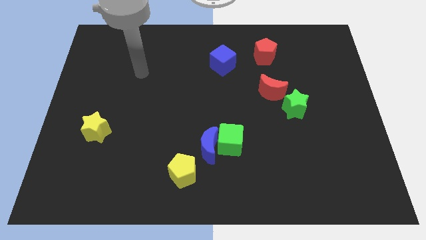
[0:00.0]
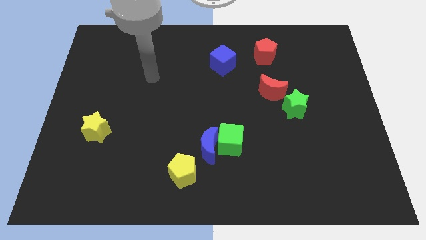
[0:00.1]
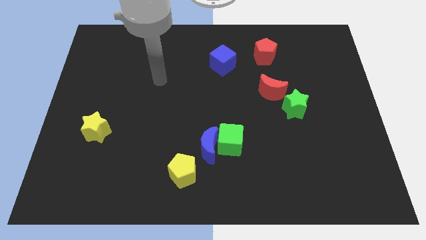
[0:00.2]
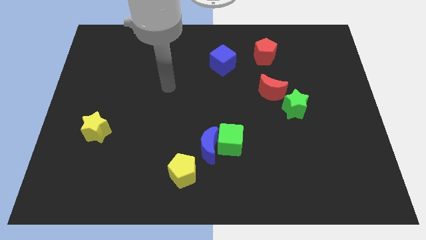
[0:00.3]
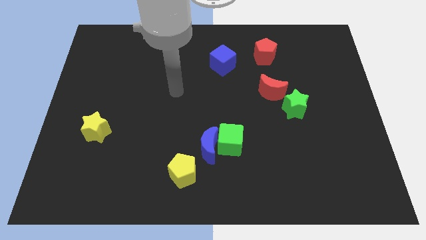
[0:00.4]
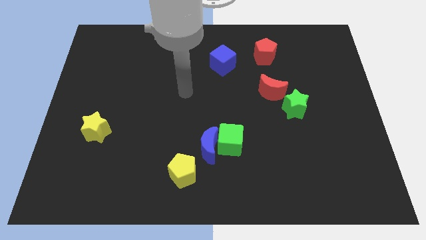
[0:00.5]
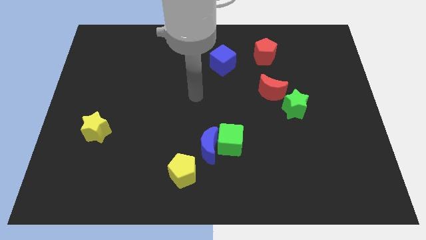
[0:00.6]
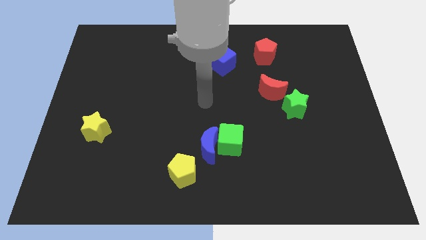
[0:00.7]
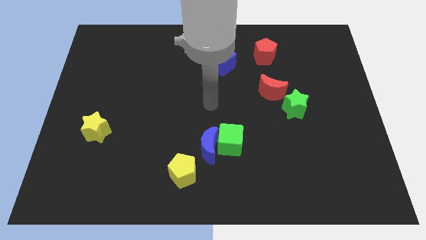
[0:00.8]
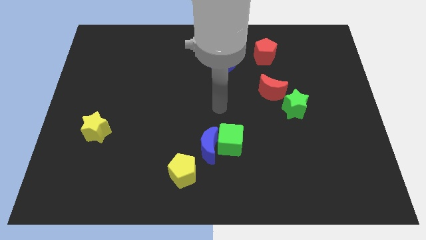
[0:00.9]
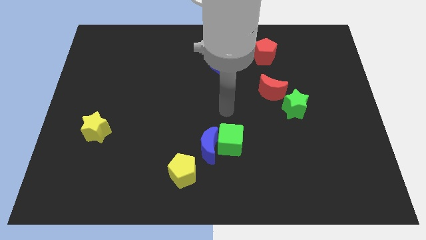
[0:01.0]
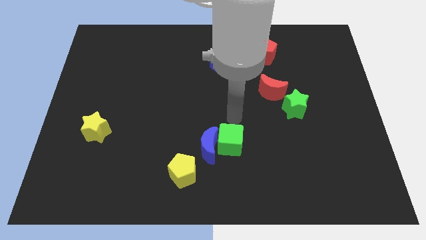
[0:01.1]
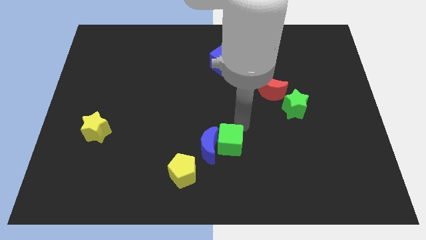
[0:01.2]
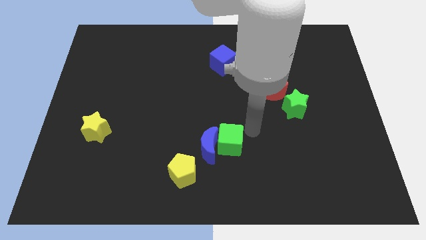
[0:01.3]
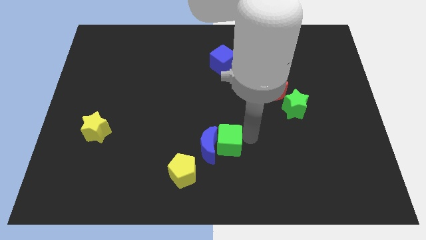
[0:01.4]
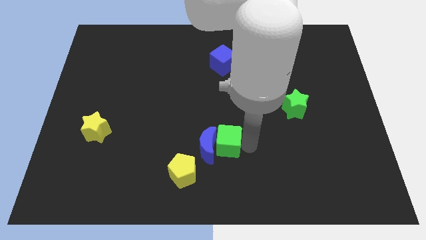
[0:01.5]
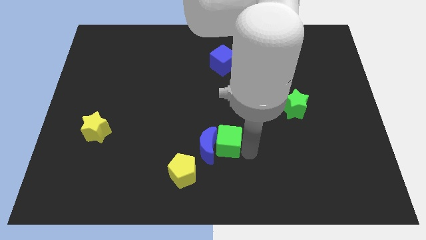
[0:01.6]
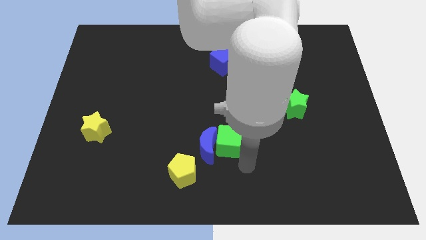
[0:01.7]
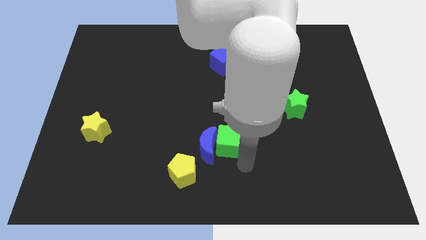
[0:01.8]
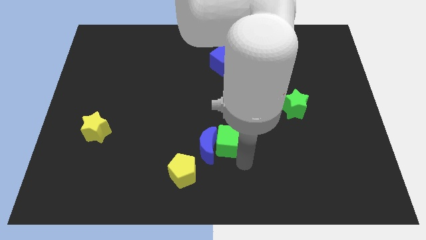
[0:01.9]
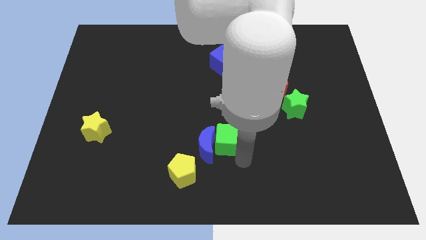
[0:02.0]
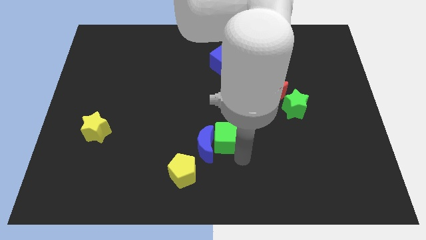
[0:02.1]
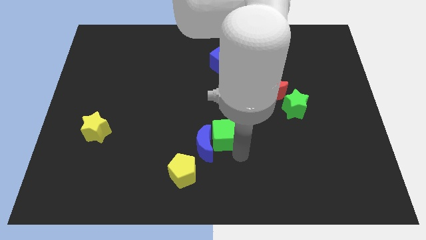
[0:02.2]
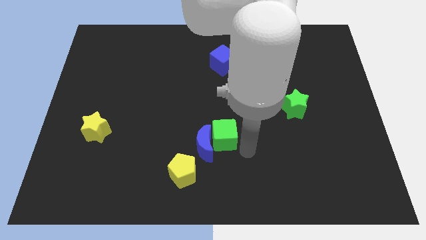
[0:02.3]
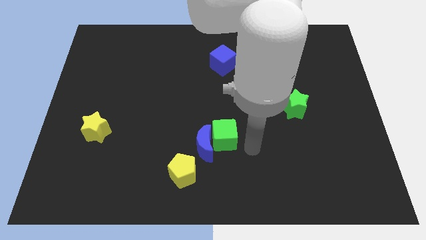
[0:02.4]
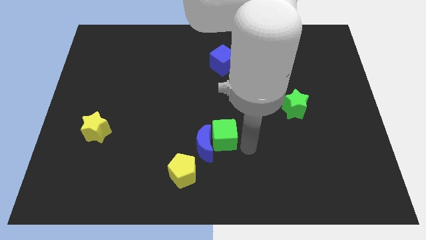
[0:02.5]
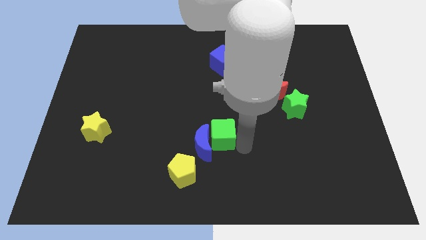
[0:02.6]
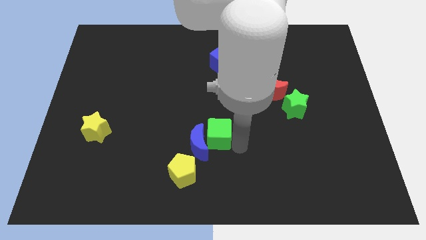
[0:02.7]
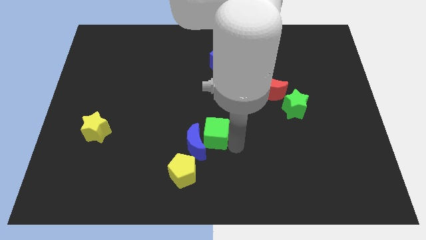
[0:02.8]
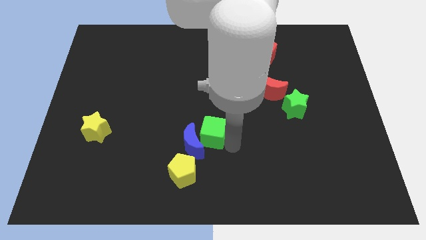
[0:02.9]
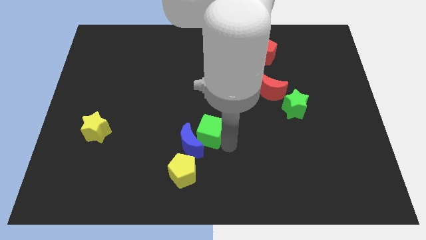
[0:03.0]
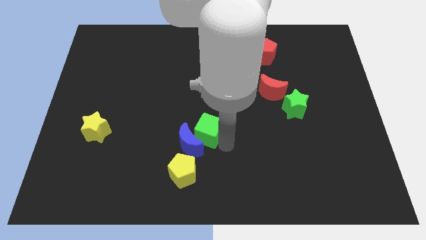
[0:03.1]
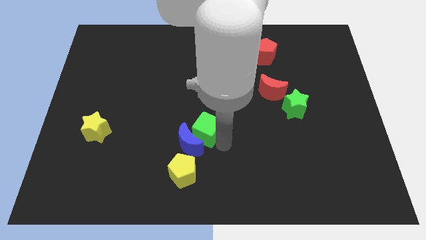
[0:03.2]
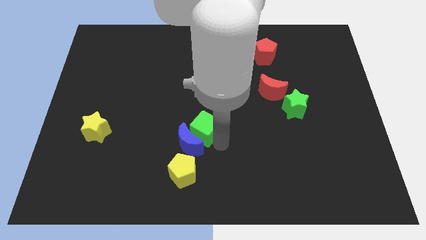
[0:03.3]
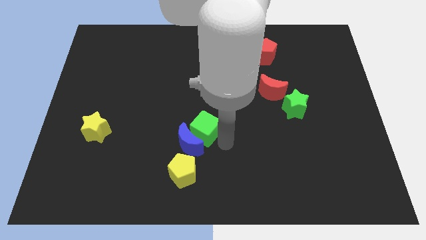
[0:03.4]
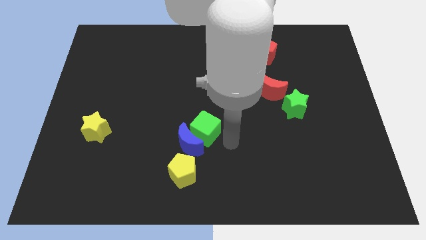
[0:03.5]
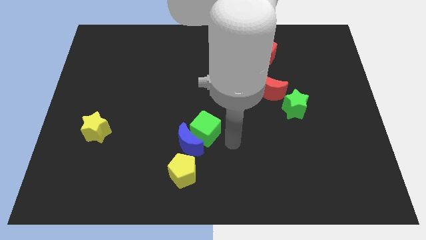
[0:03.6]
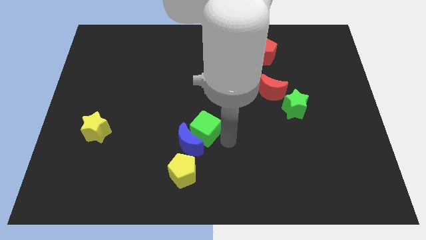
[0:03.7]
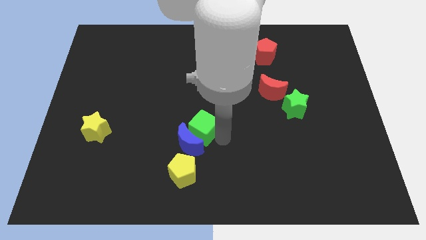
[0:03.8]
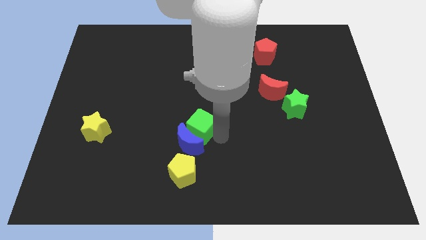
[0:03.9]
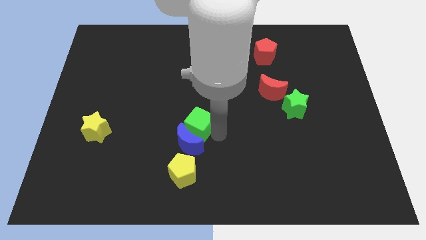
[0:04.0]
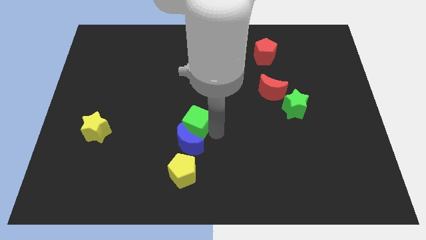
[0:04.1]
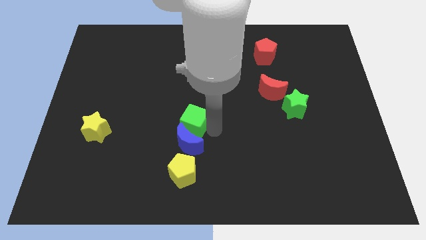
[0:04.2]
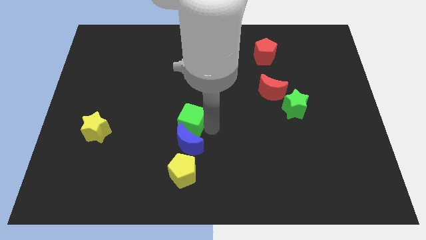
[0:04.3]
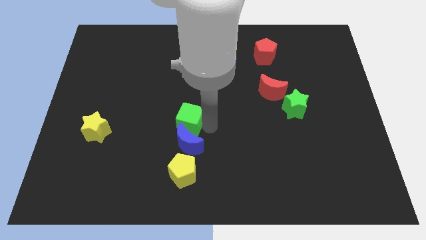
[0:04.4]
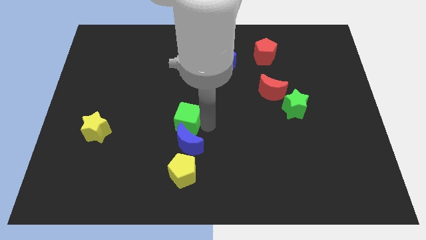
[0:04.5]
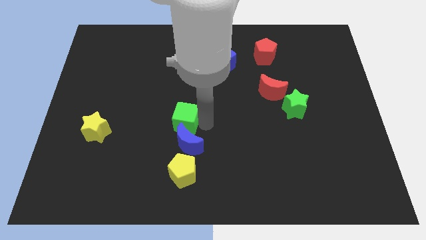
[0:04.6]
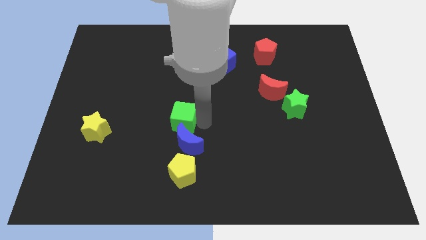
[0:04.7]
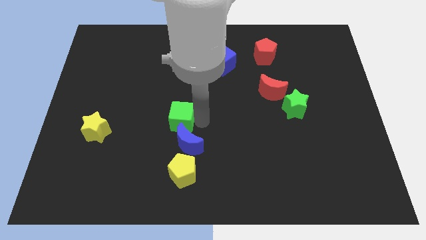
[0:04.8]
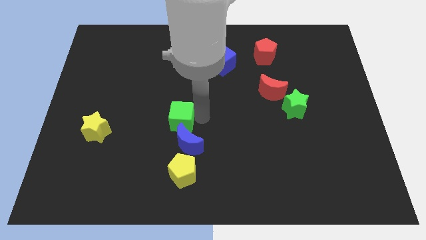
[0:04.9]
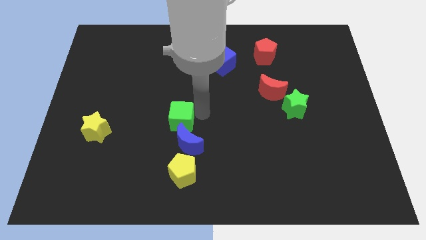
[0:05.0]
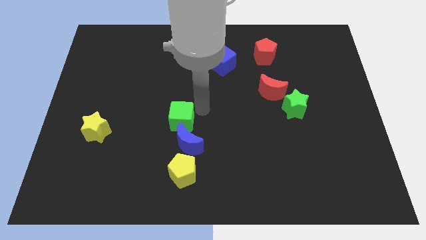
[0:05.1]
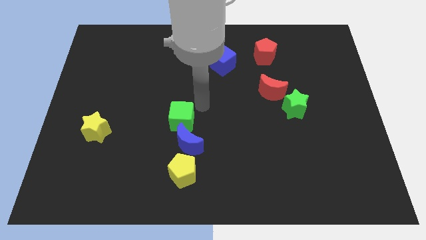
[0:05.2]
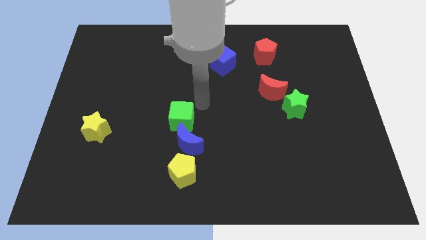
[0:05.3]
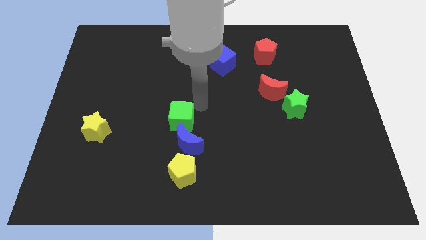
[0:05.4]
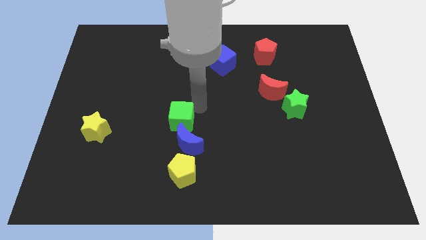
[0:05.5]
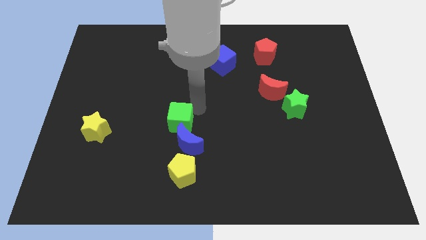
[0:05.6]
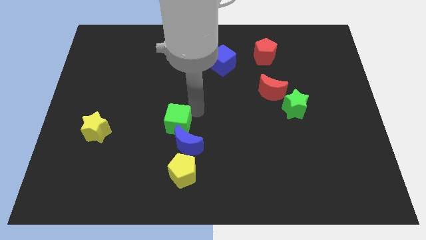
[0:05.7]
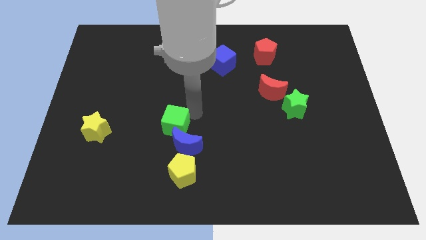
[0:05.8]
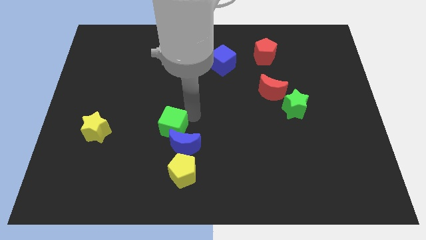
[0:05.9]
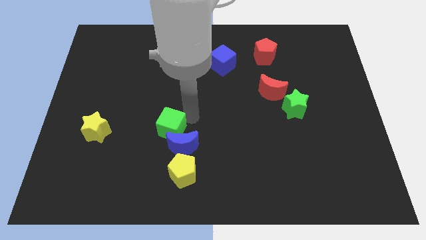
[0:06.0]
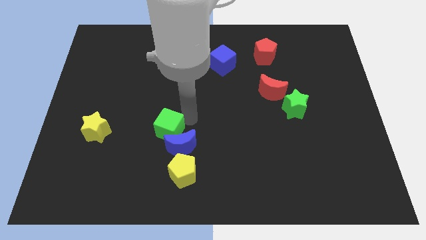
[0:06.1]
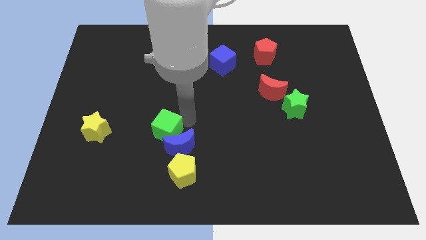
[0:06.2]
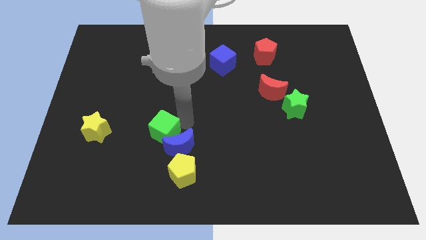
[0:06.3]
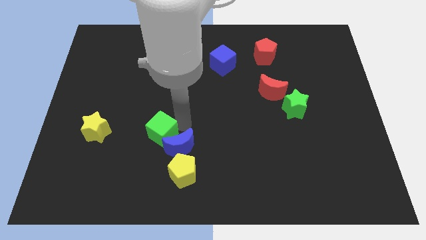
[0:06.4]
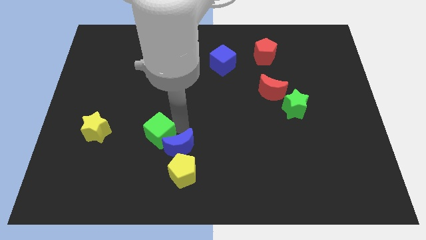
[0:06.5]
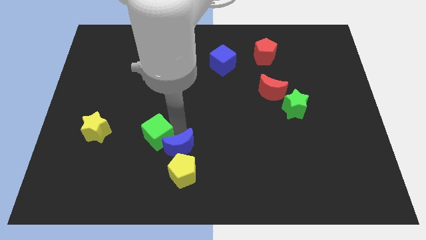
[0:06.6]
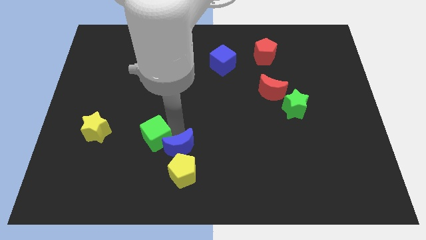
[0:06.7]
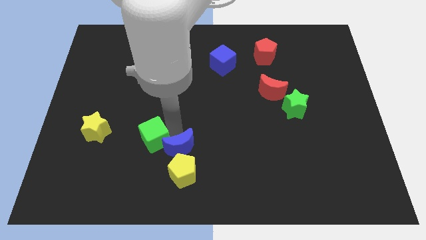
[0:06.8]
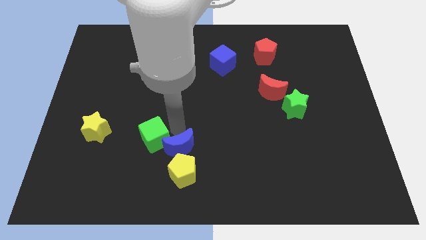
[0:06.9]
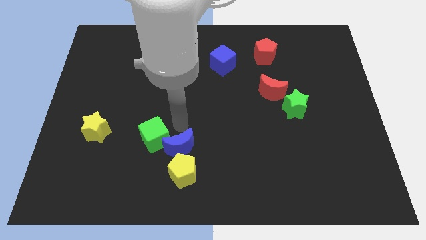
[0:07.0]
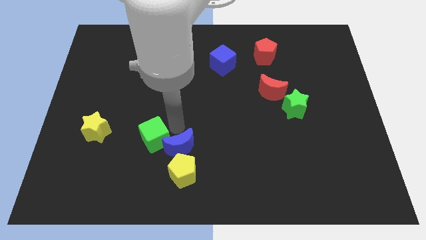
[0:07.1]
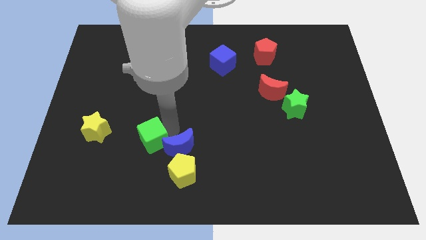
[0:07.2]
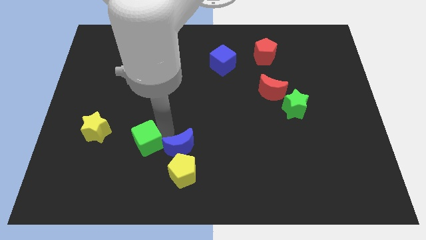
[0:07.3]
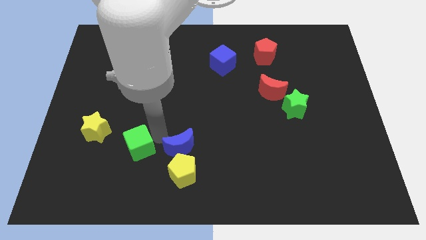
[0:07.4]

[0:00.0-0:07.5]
push the green cube to the left

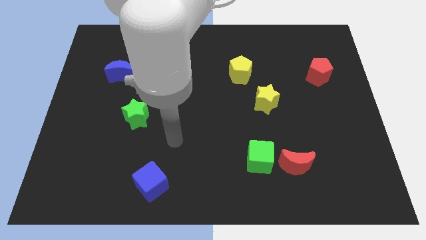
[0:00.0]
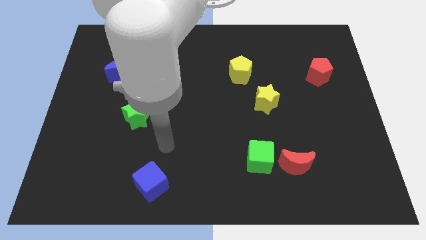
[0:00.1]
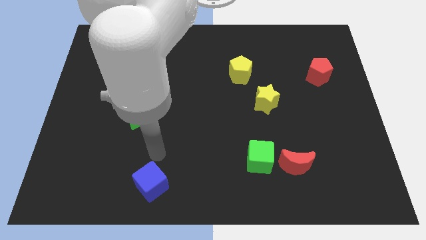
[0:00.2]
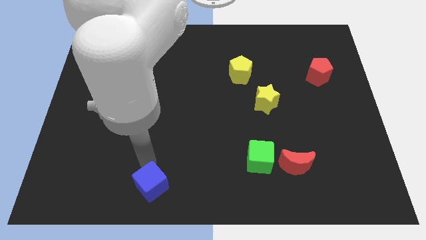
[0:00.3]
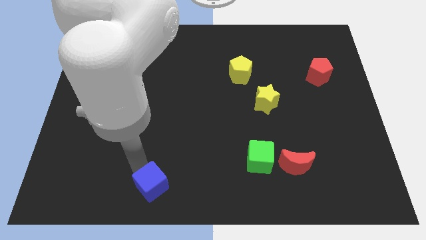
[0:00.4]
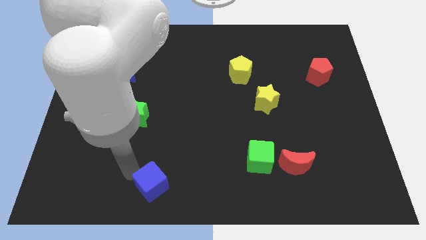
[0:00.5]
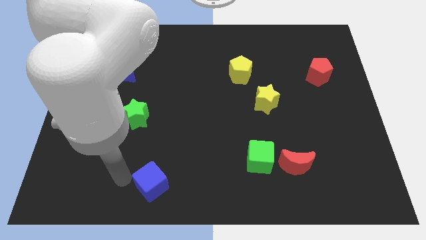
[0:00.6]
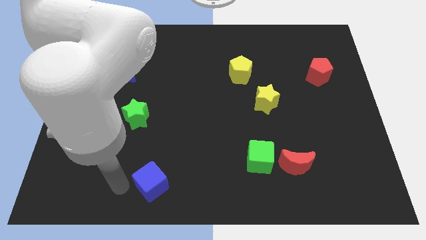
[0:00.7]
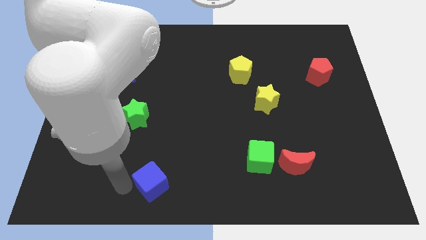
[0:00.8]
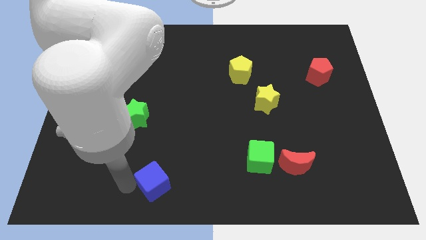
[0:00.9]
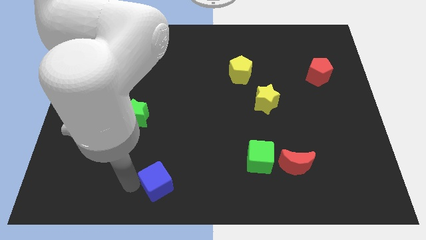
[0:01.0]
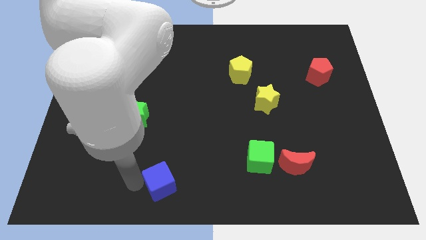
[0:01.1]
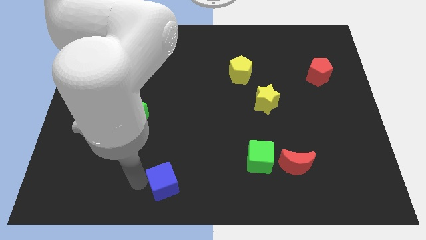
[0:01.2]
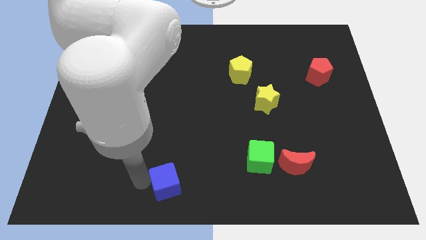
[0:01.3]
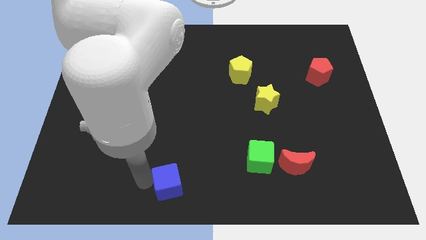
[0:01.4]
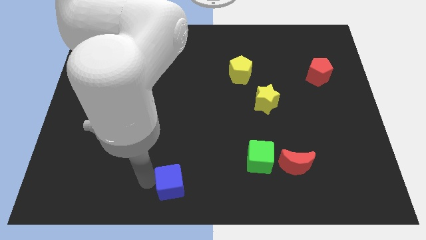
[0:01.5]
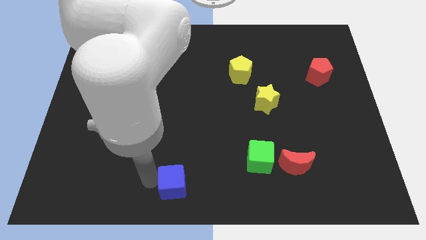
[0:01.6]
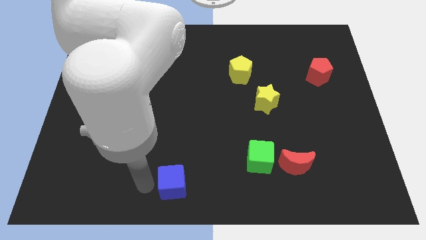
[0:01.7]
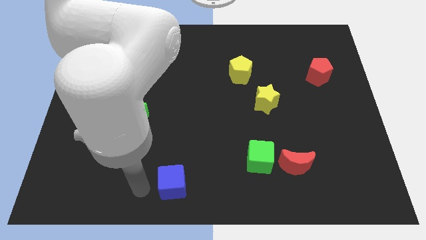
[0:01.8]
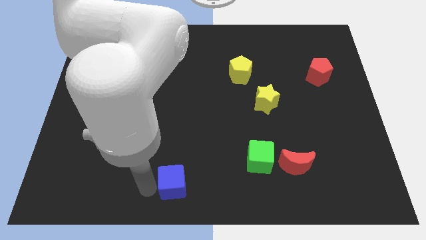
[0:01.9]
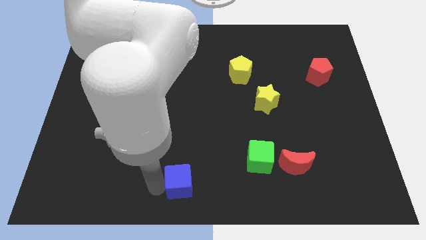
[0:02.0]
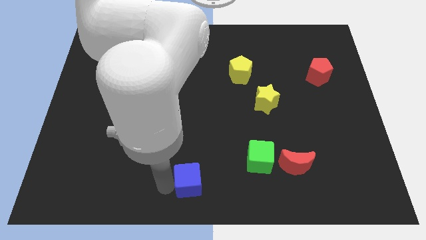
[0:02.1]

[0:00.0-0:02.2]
slightly push the blue cube to the right
